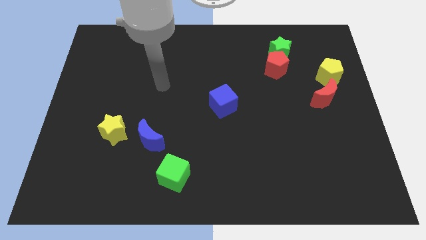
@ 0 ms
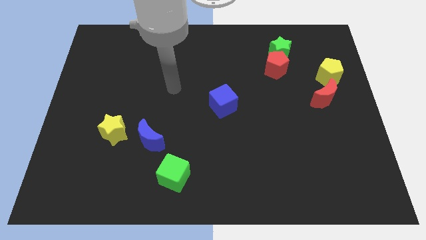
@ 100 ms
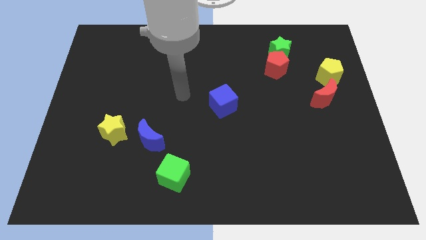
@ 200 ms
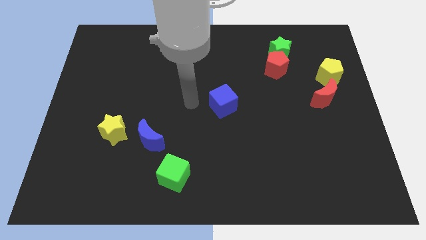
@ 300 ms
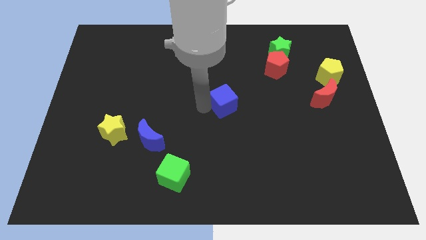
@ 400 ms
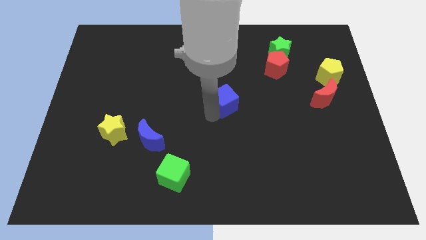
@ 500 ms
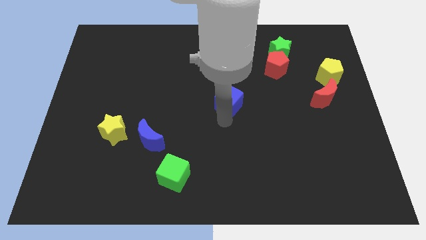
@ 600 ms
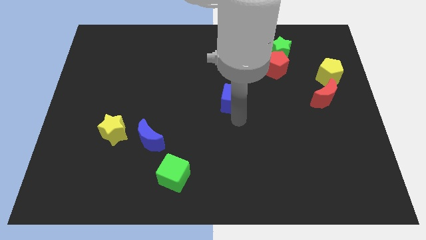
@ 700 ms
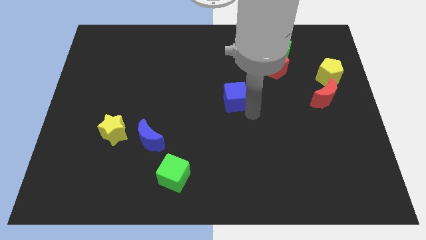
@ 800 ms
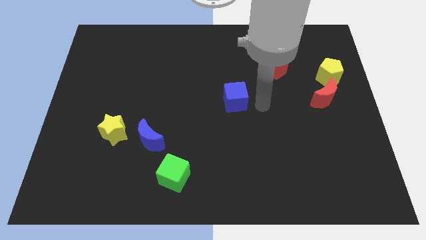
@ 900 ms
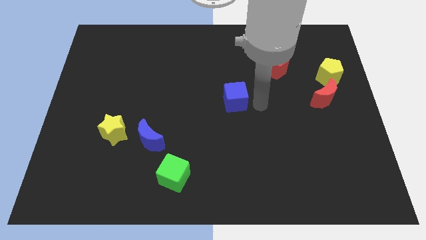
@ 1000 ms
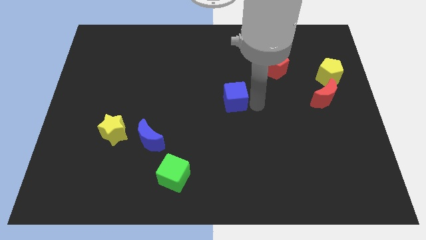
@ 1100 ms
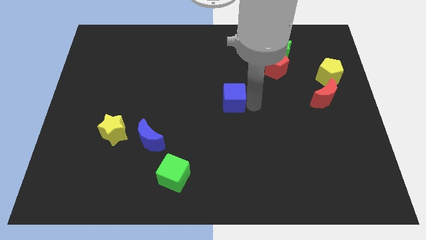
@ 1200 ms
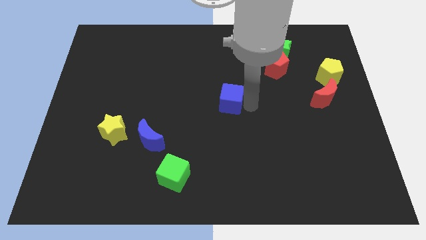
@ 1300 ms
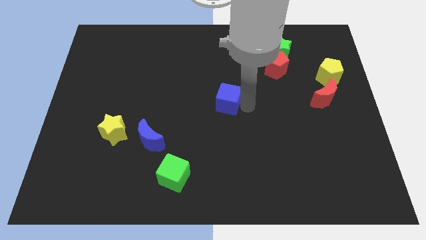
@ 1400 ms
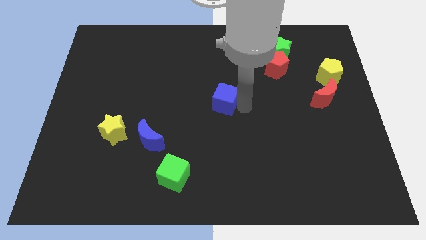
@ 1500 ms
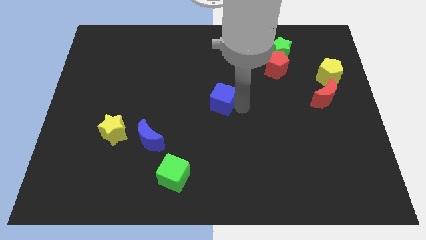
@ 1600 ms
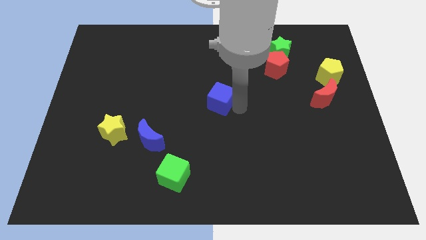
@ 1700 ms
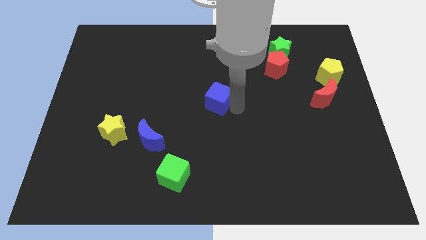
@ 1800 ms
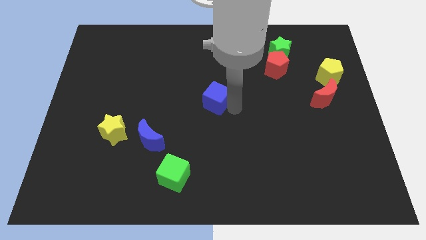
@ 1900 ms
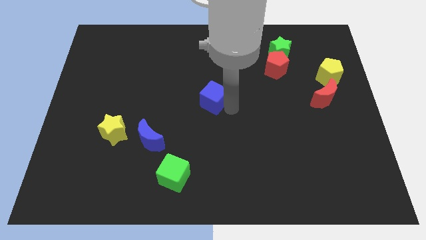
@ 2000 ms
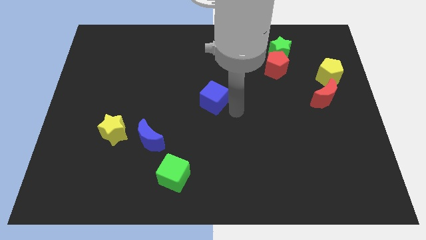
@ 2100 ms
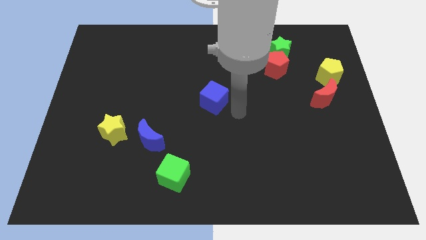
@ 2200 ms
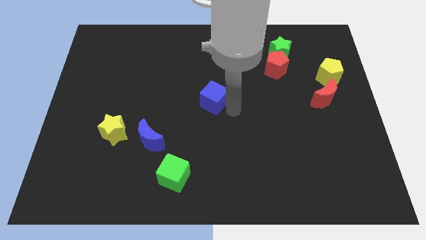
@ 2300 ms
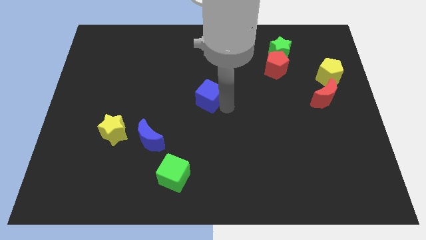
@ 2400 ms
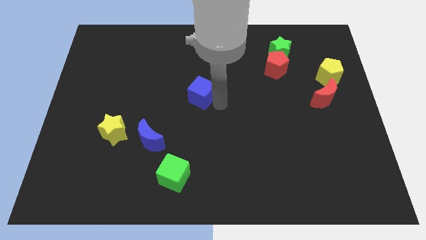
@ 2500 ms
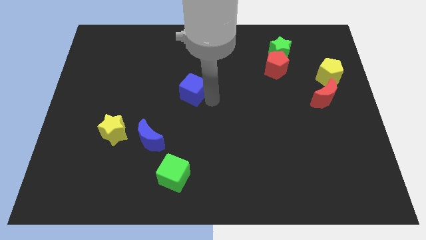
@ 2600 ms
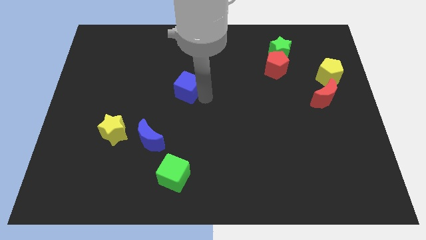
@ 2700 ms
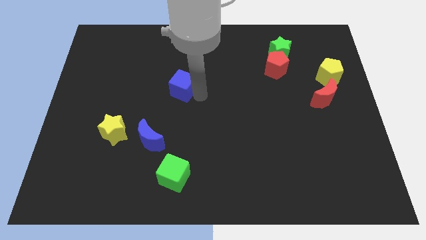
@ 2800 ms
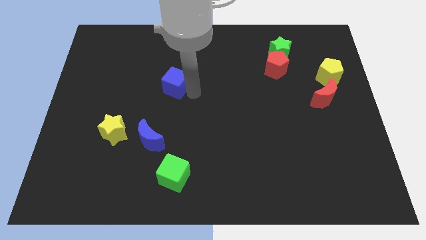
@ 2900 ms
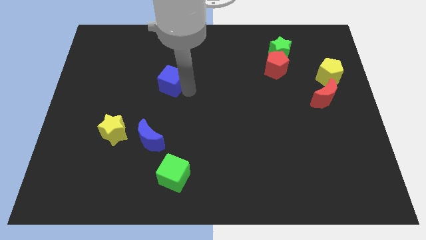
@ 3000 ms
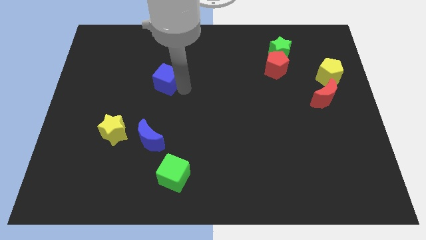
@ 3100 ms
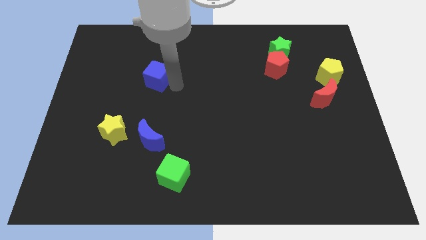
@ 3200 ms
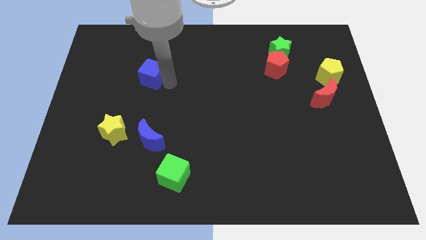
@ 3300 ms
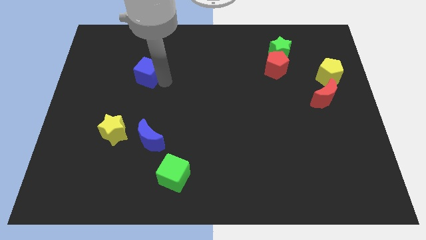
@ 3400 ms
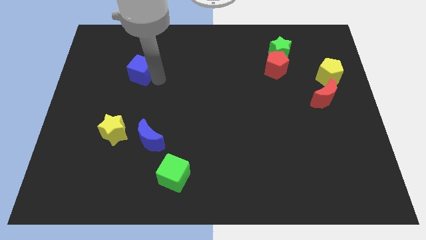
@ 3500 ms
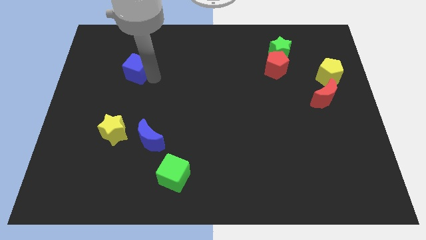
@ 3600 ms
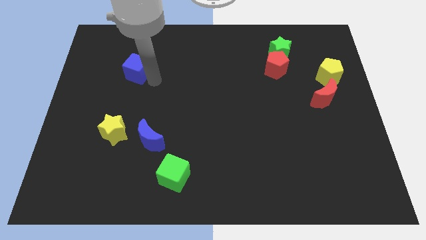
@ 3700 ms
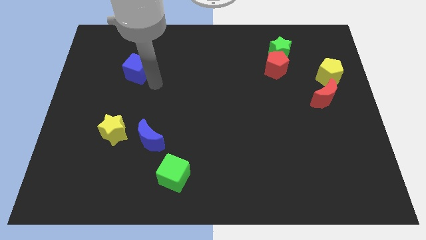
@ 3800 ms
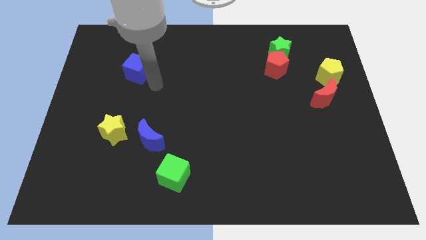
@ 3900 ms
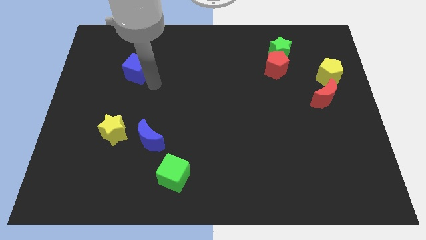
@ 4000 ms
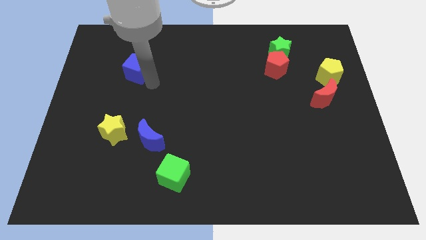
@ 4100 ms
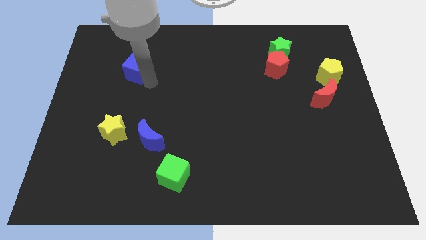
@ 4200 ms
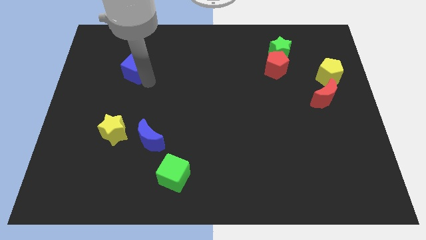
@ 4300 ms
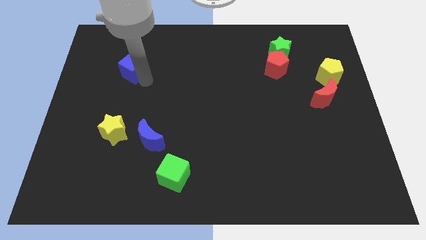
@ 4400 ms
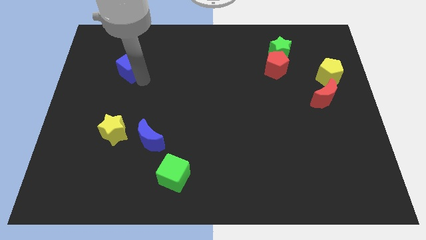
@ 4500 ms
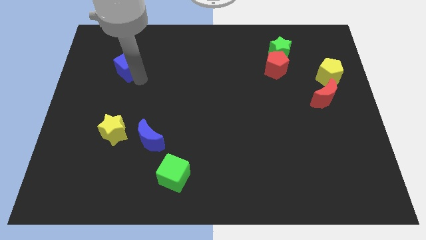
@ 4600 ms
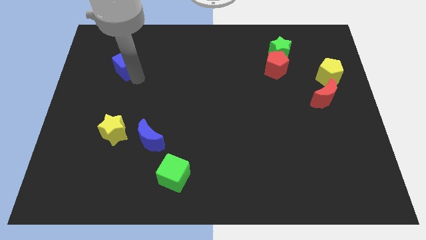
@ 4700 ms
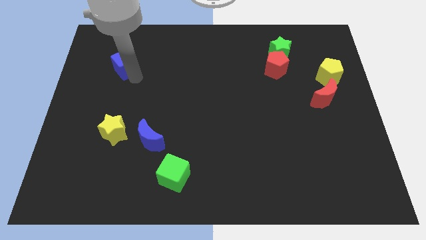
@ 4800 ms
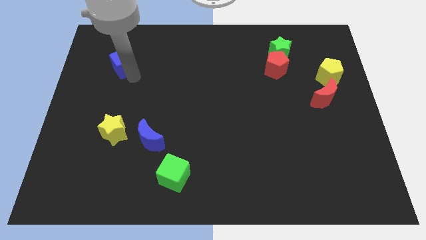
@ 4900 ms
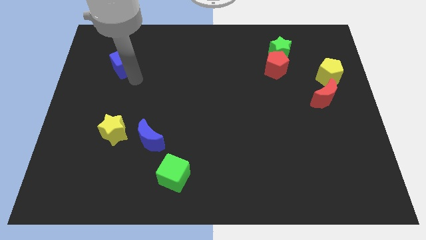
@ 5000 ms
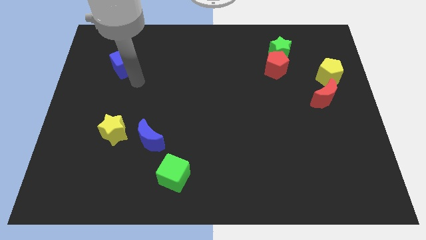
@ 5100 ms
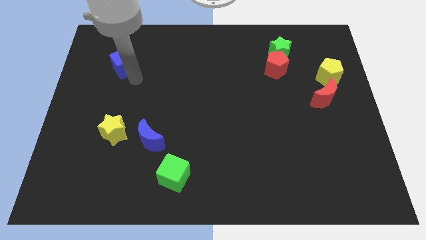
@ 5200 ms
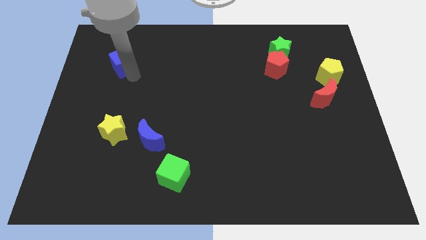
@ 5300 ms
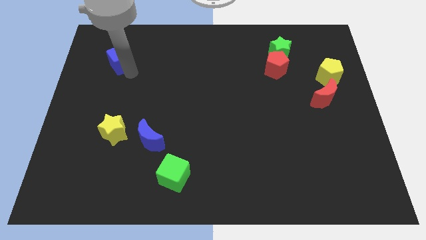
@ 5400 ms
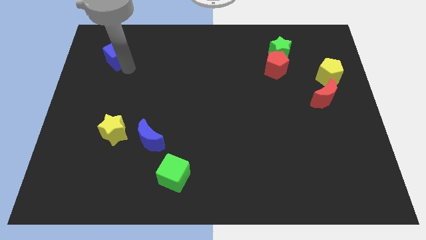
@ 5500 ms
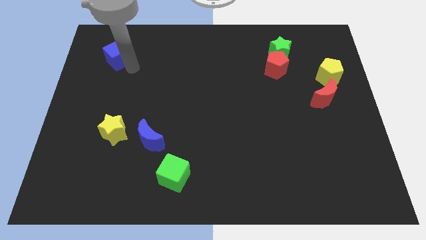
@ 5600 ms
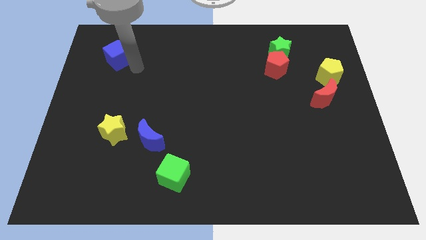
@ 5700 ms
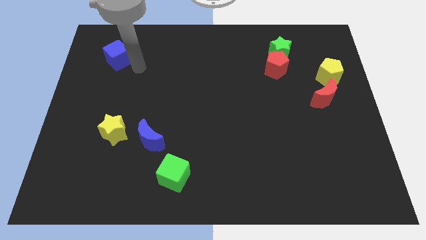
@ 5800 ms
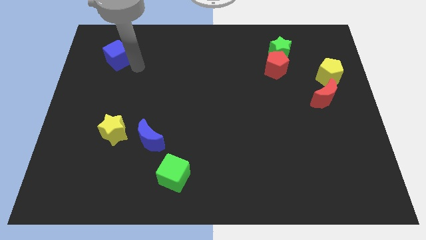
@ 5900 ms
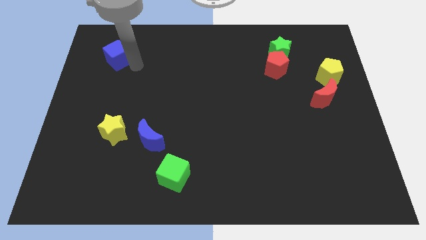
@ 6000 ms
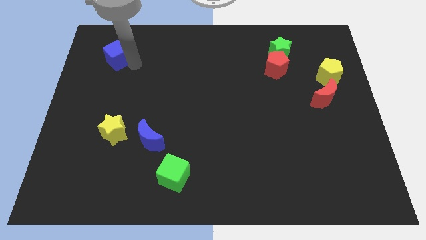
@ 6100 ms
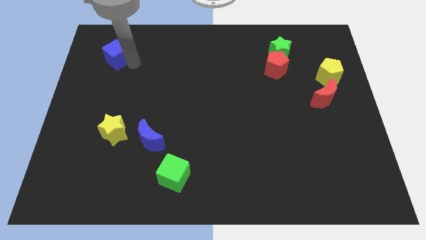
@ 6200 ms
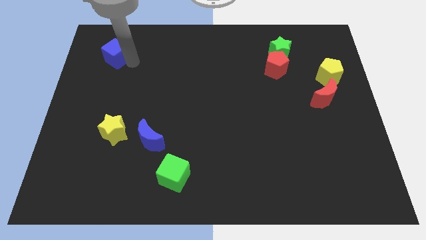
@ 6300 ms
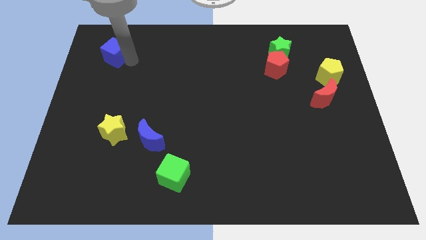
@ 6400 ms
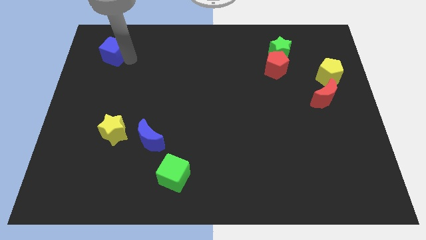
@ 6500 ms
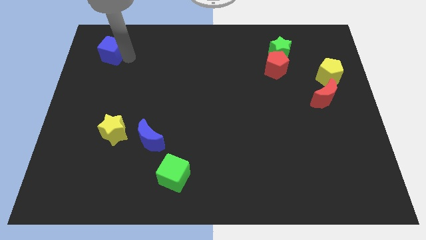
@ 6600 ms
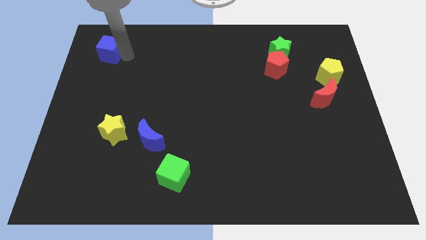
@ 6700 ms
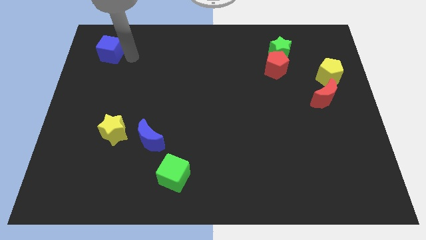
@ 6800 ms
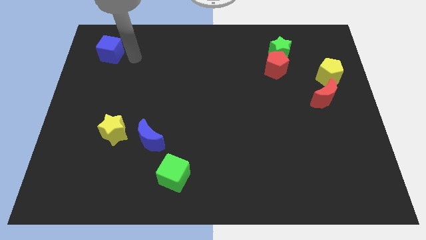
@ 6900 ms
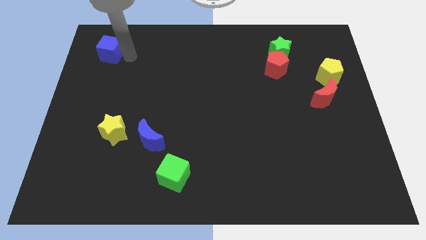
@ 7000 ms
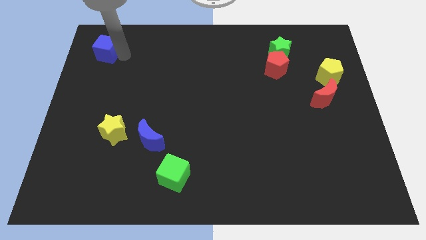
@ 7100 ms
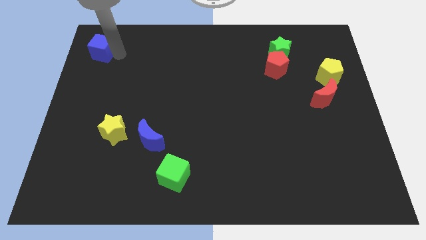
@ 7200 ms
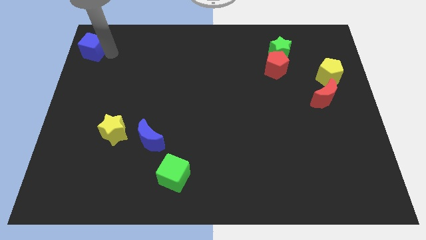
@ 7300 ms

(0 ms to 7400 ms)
put the blue cube to the top left corner

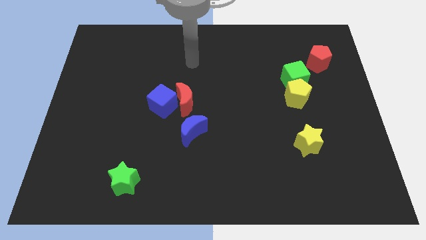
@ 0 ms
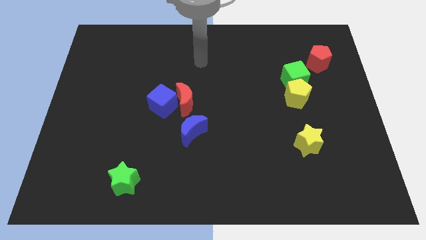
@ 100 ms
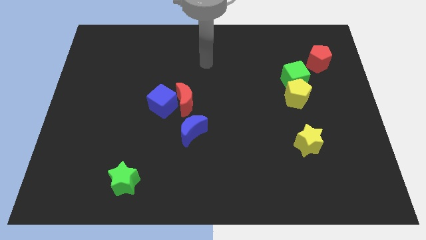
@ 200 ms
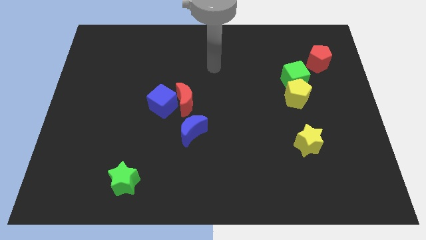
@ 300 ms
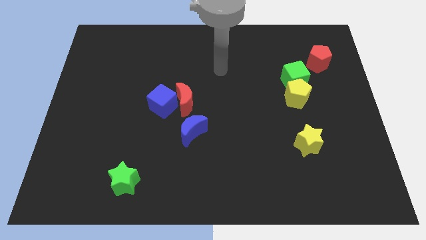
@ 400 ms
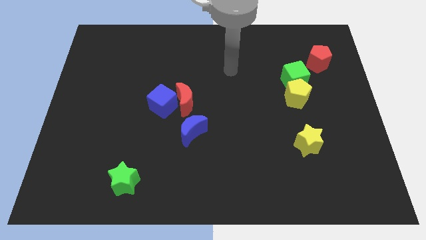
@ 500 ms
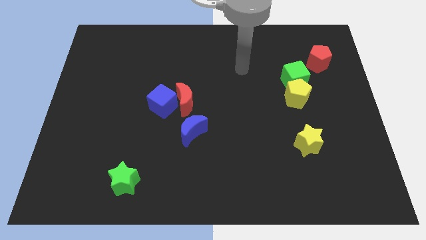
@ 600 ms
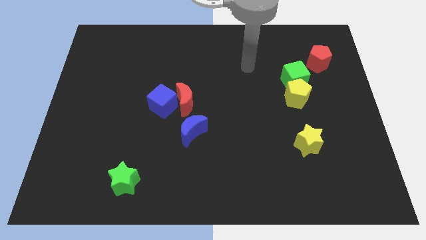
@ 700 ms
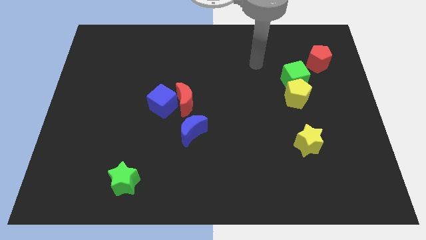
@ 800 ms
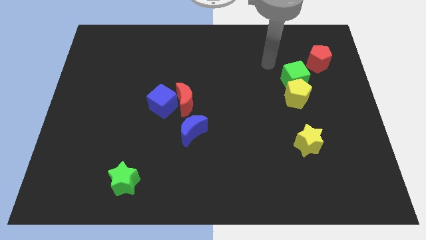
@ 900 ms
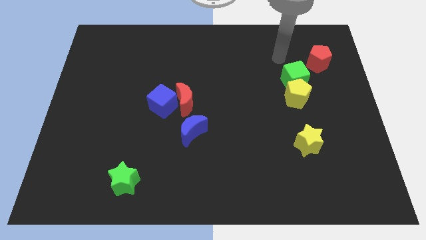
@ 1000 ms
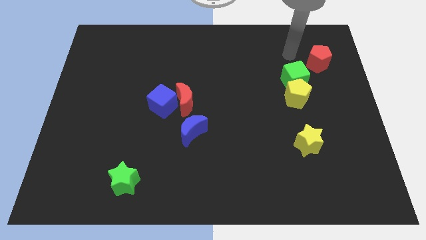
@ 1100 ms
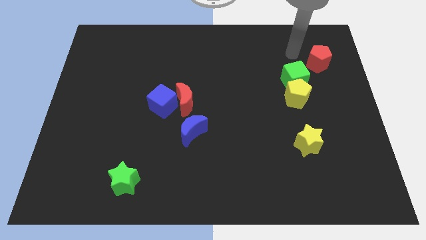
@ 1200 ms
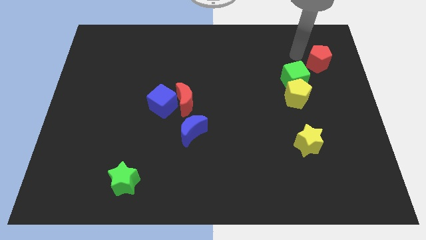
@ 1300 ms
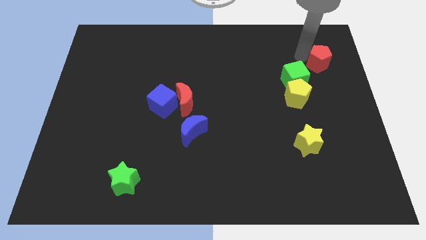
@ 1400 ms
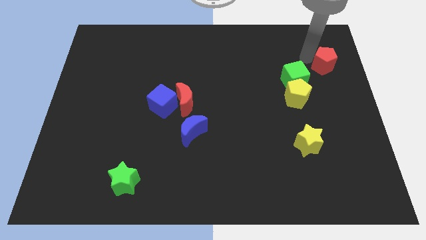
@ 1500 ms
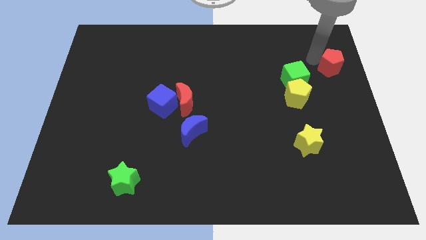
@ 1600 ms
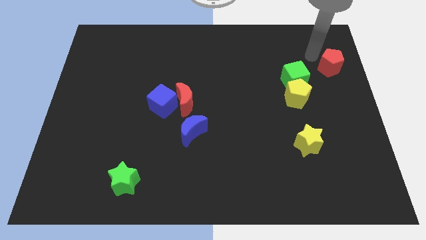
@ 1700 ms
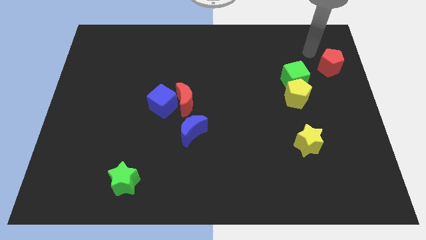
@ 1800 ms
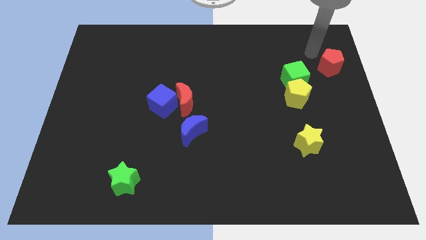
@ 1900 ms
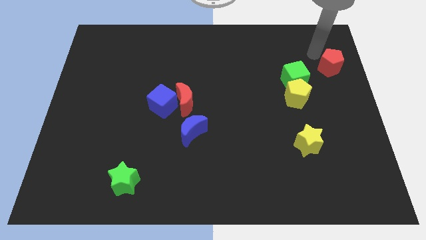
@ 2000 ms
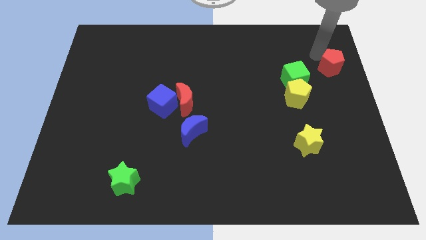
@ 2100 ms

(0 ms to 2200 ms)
slide the red pentagon to the right side
